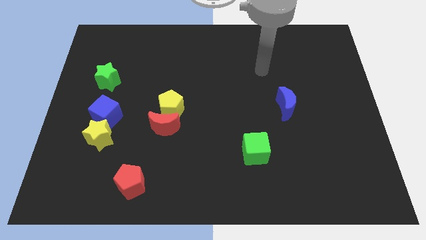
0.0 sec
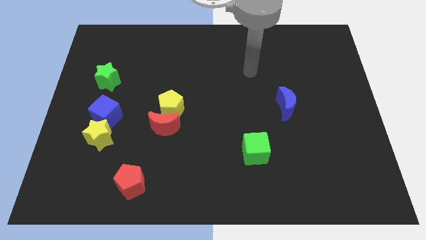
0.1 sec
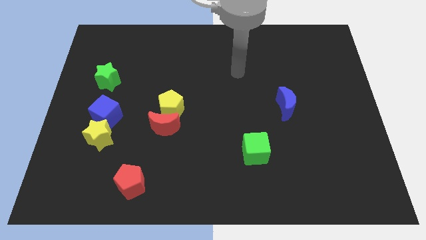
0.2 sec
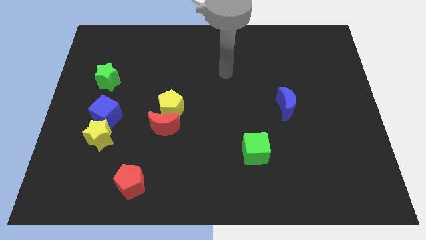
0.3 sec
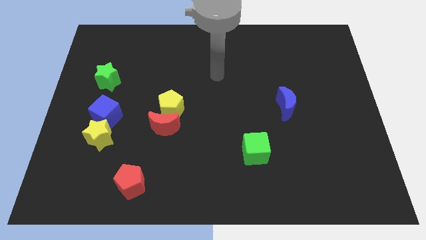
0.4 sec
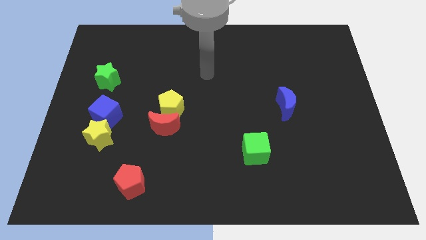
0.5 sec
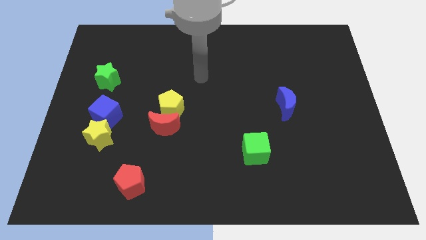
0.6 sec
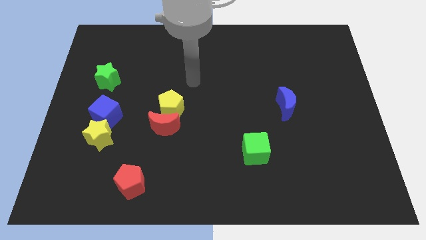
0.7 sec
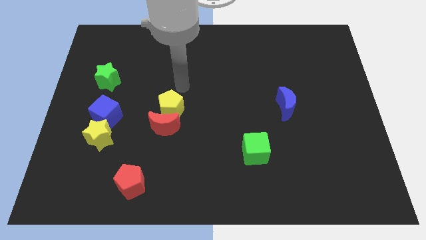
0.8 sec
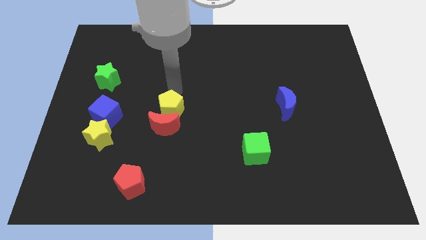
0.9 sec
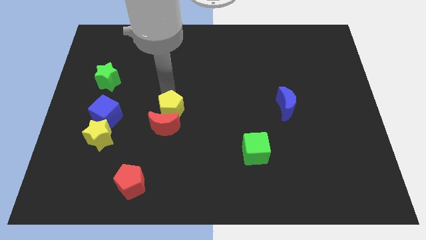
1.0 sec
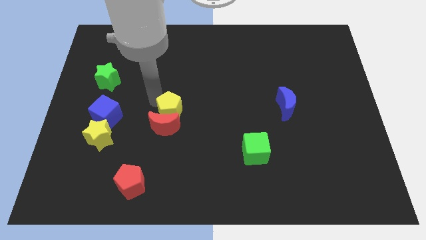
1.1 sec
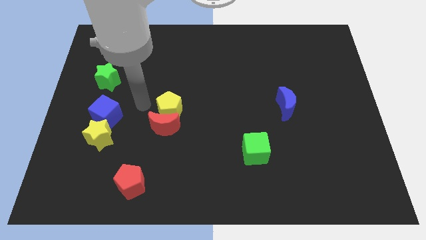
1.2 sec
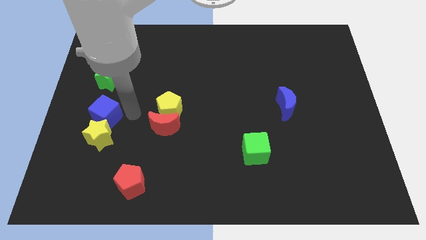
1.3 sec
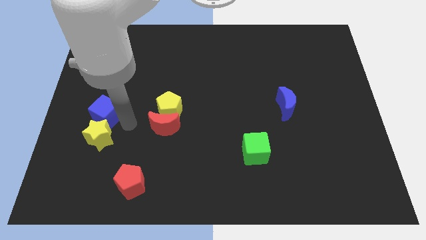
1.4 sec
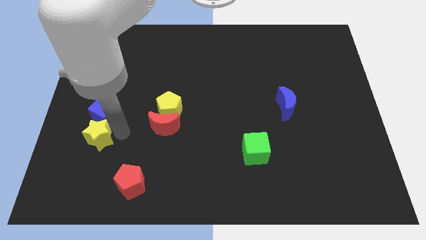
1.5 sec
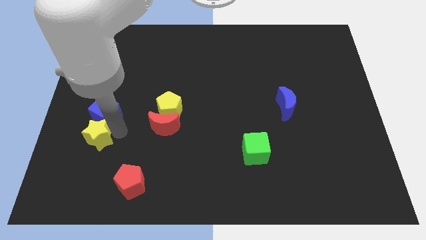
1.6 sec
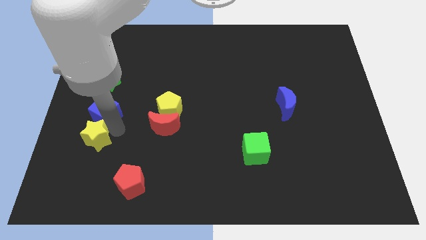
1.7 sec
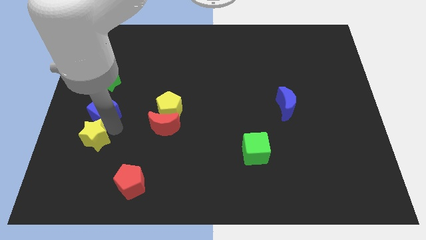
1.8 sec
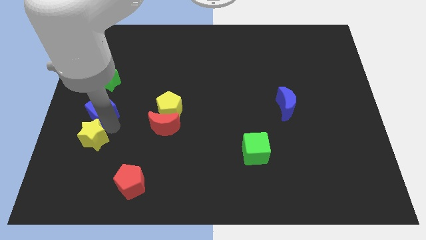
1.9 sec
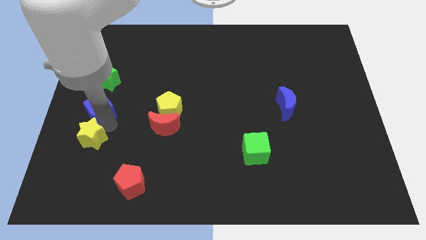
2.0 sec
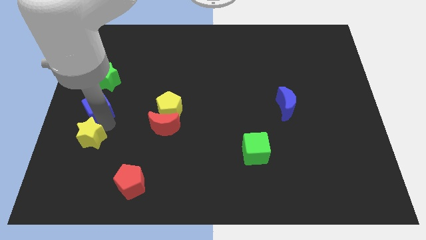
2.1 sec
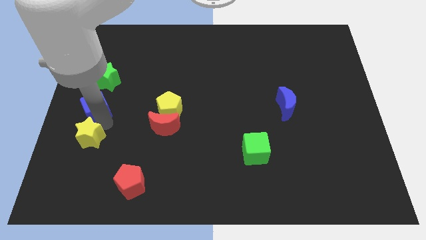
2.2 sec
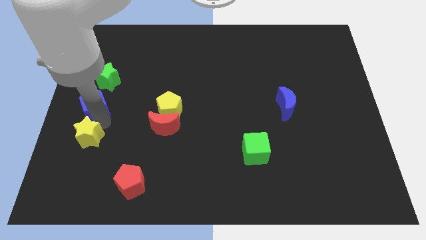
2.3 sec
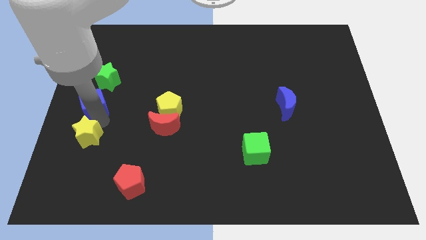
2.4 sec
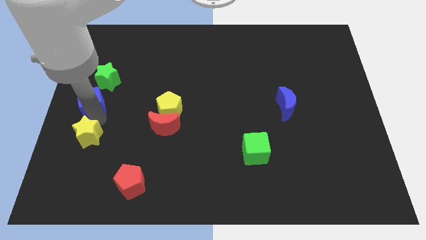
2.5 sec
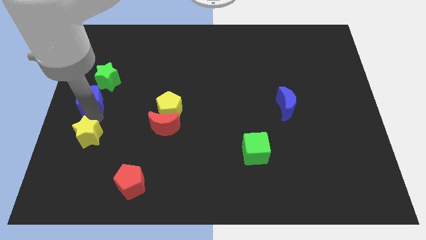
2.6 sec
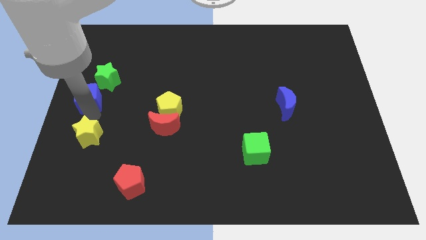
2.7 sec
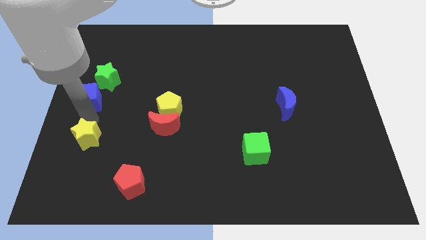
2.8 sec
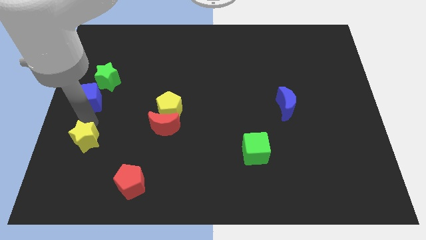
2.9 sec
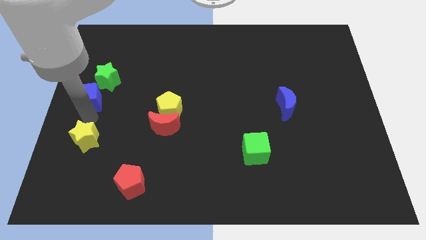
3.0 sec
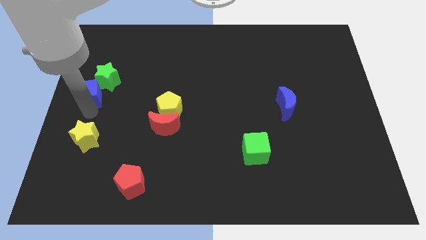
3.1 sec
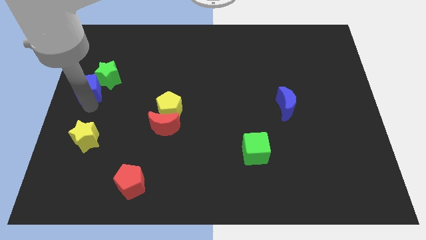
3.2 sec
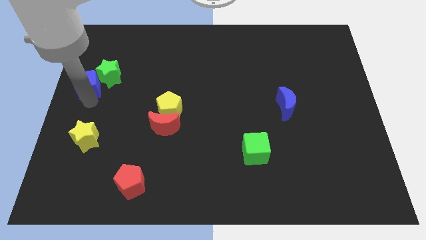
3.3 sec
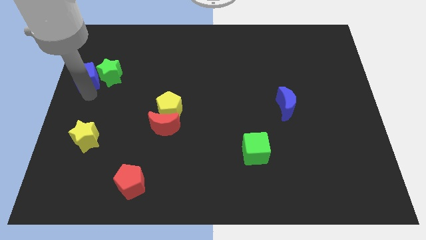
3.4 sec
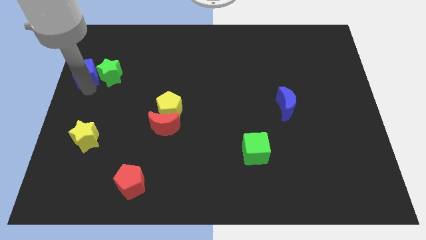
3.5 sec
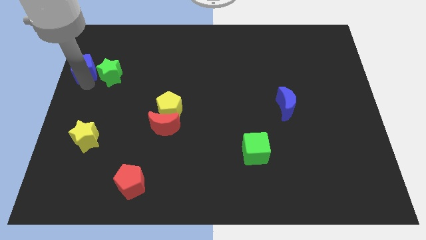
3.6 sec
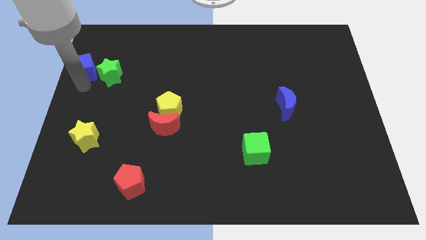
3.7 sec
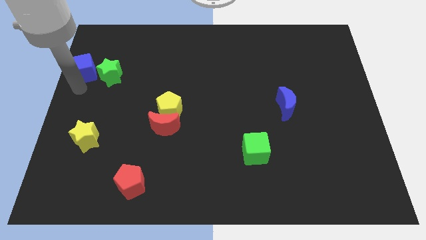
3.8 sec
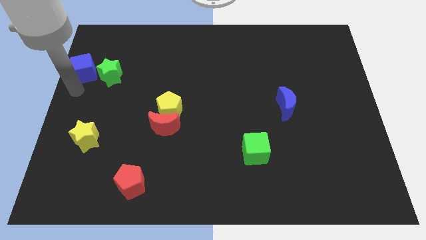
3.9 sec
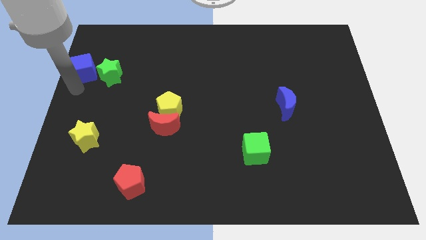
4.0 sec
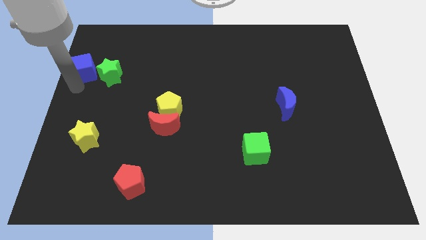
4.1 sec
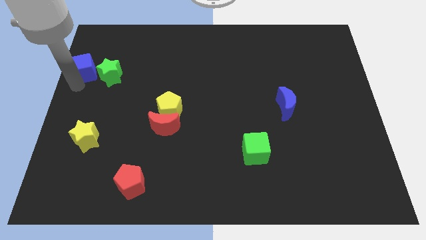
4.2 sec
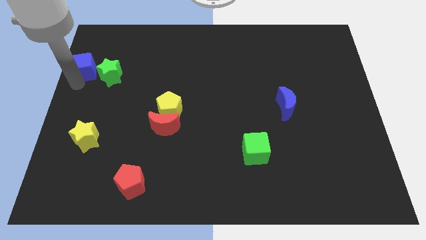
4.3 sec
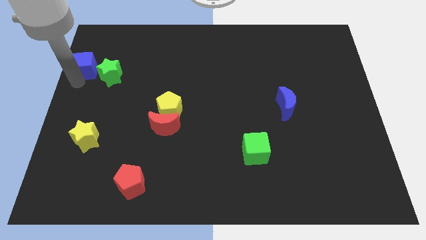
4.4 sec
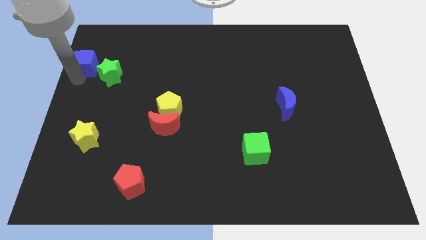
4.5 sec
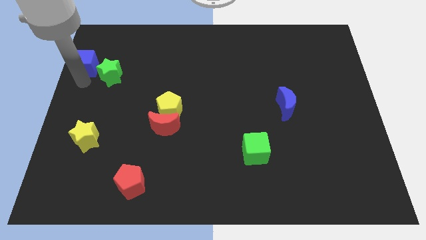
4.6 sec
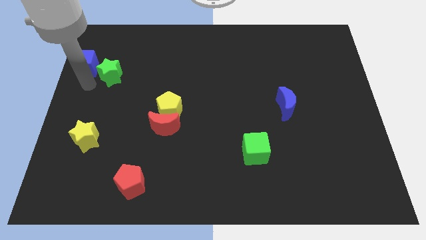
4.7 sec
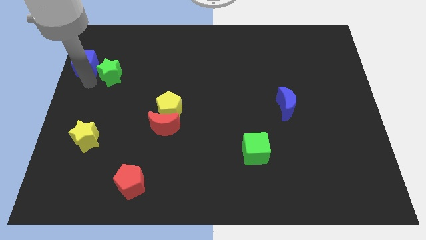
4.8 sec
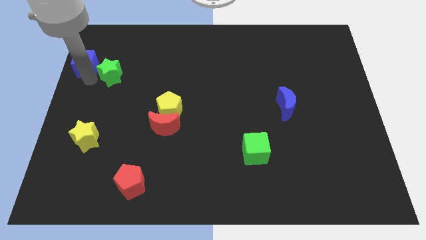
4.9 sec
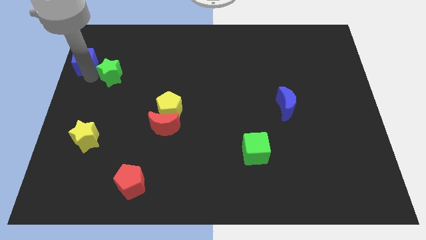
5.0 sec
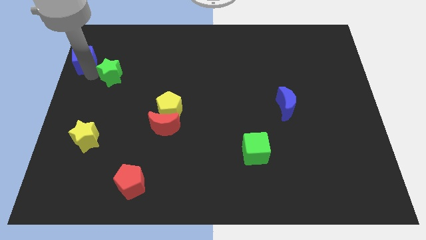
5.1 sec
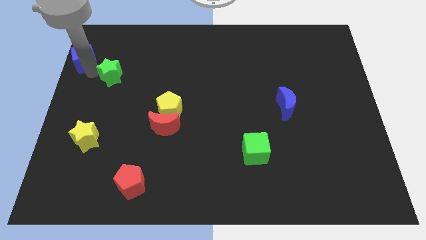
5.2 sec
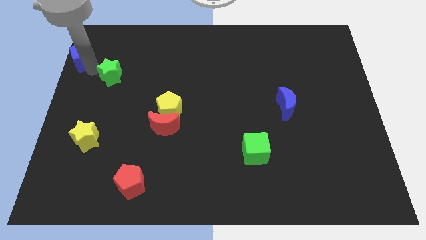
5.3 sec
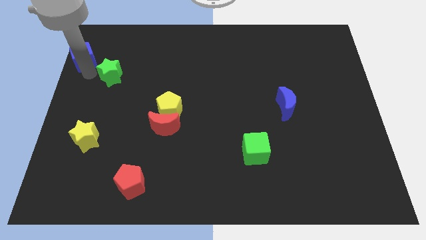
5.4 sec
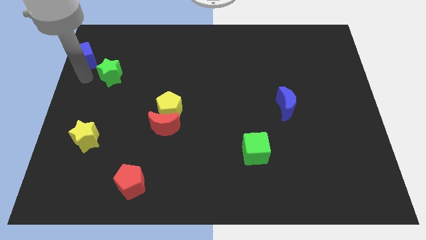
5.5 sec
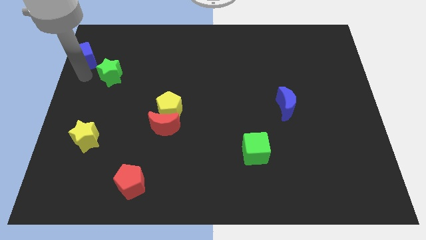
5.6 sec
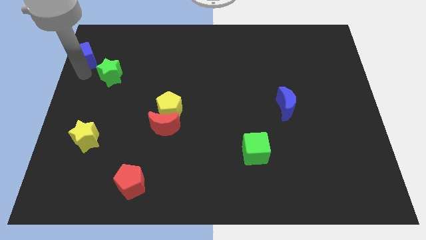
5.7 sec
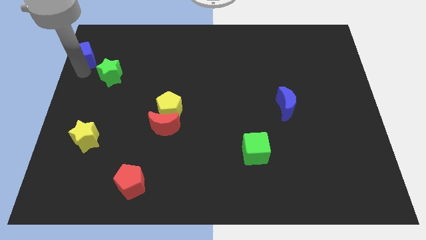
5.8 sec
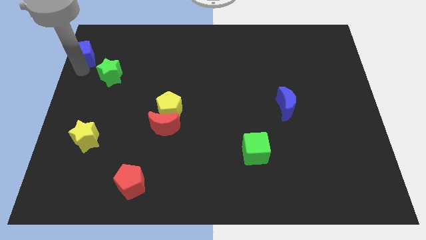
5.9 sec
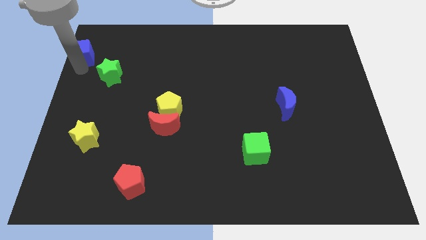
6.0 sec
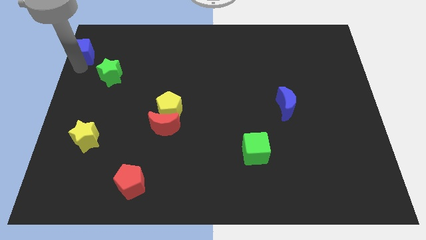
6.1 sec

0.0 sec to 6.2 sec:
slide the blue cube to the top left
